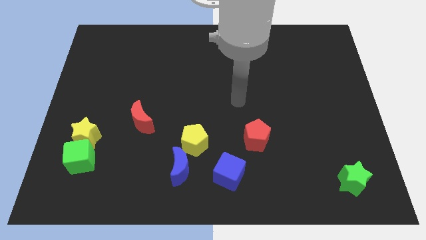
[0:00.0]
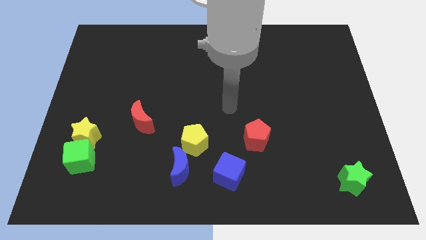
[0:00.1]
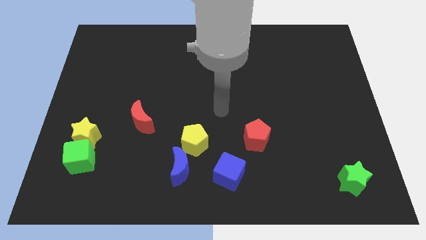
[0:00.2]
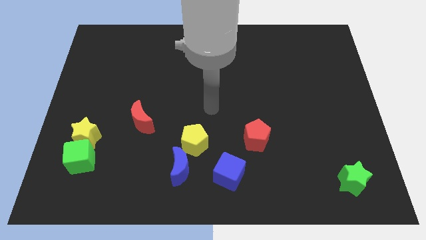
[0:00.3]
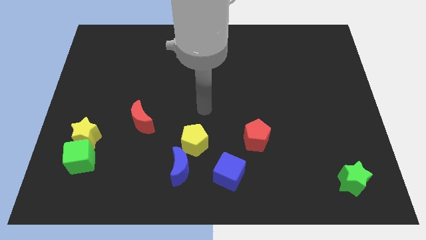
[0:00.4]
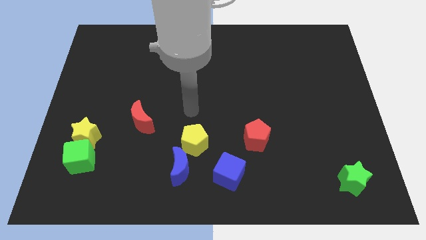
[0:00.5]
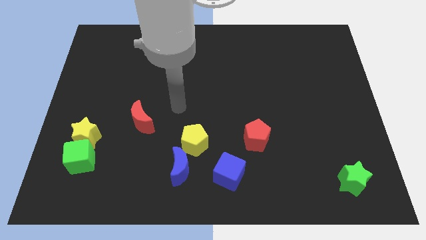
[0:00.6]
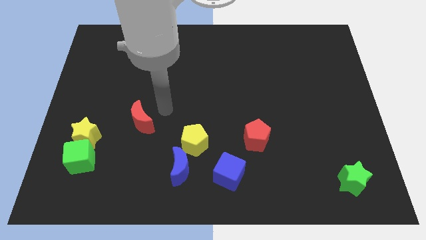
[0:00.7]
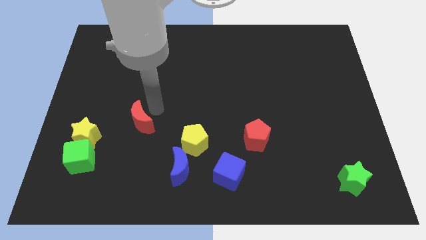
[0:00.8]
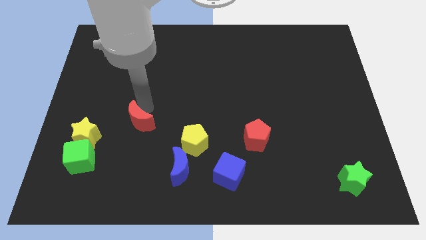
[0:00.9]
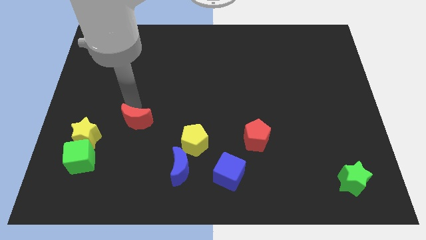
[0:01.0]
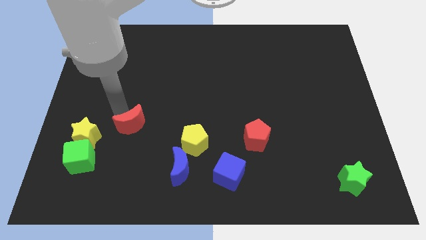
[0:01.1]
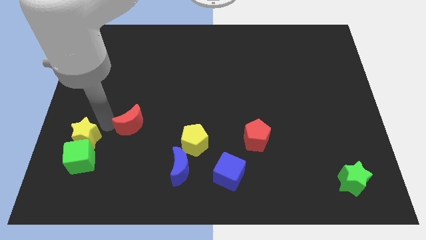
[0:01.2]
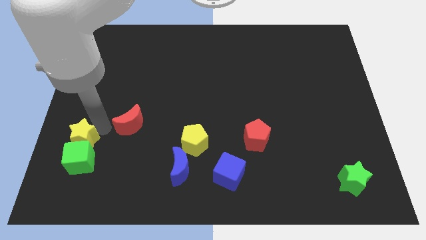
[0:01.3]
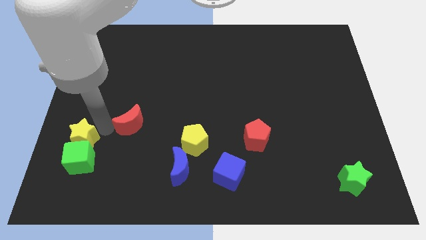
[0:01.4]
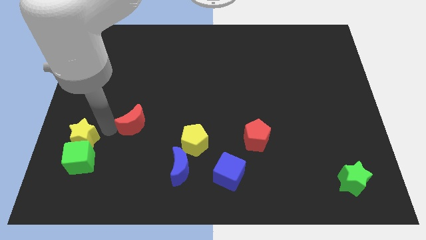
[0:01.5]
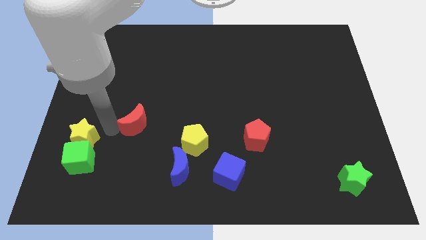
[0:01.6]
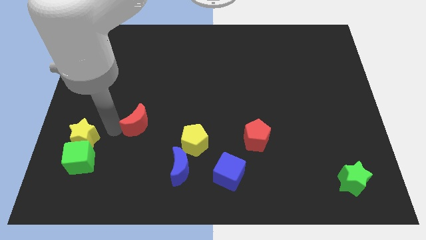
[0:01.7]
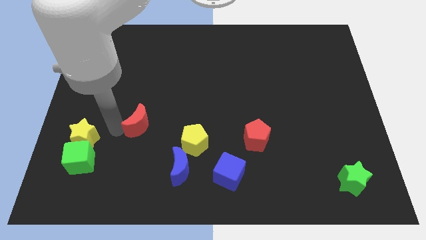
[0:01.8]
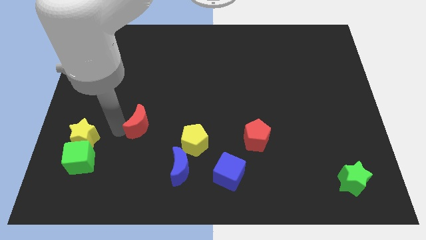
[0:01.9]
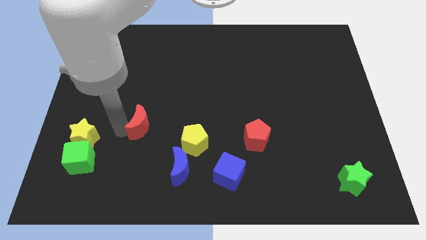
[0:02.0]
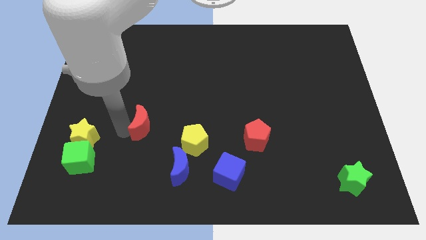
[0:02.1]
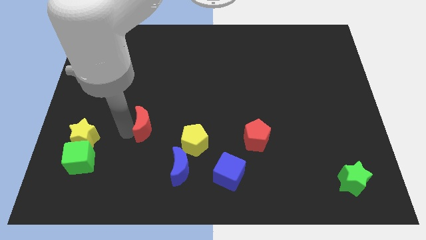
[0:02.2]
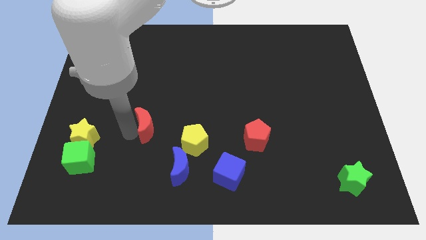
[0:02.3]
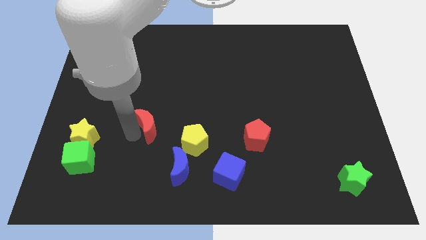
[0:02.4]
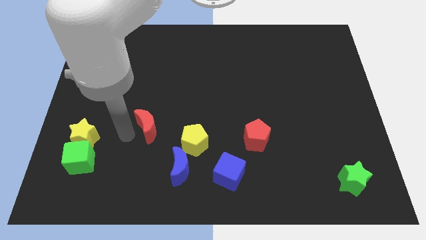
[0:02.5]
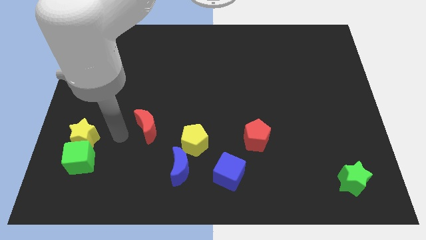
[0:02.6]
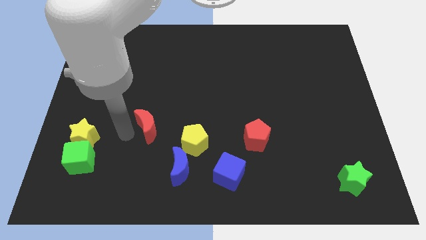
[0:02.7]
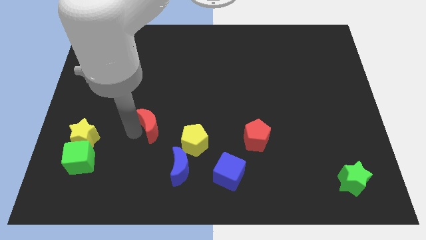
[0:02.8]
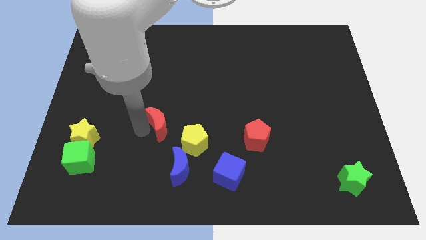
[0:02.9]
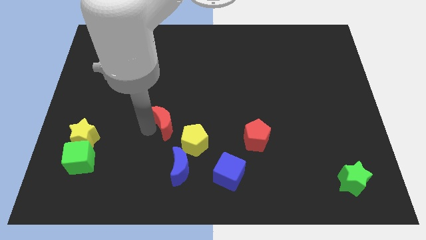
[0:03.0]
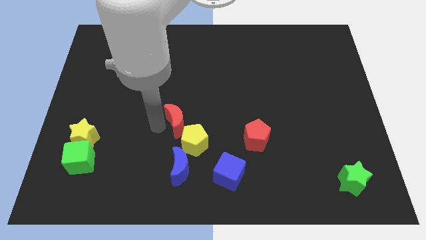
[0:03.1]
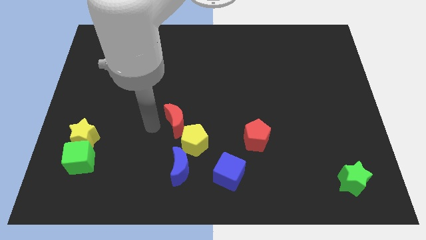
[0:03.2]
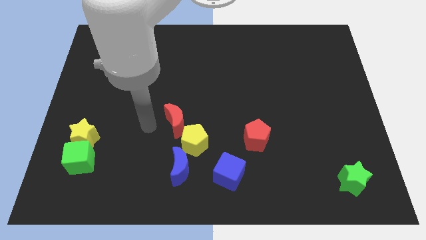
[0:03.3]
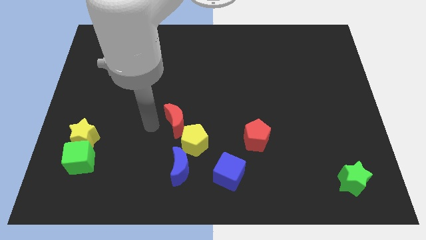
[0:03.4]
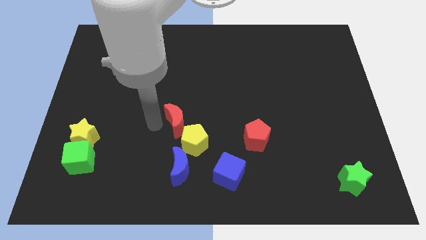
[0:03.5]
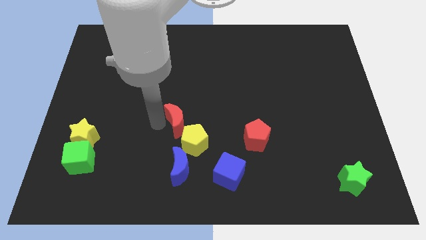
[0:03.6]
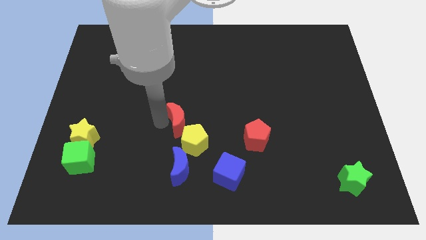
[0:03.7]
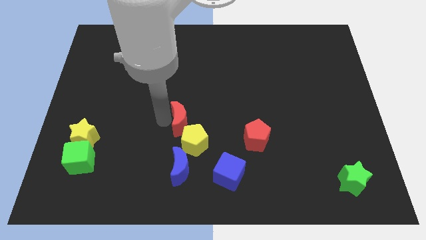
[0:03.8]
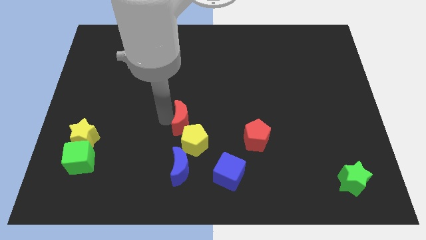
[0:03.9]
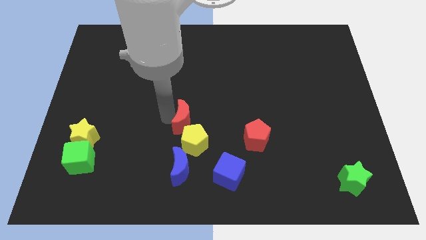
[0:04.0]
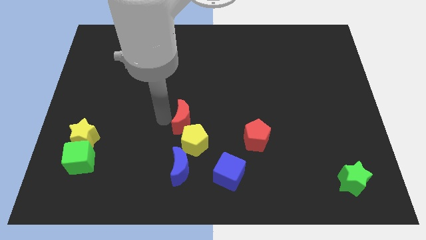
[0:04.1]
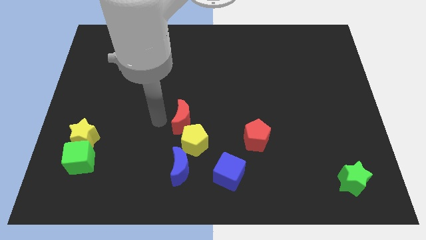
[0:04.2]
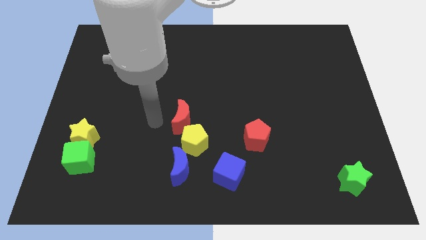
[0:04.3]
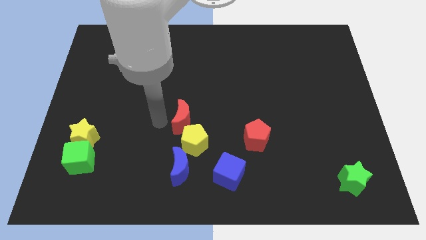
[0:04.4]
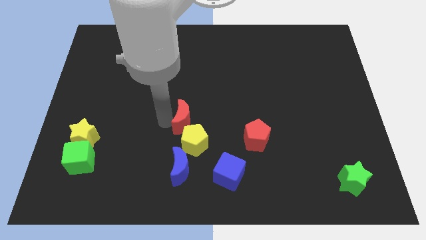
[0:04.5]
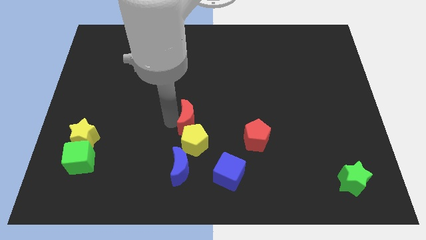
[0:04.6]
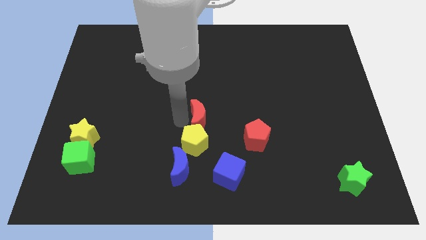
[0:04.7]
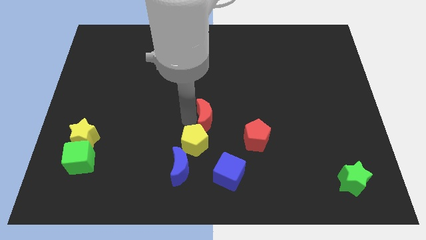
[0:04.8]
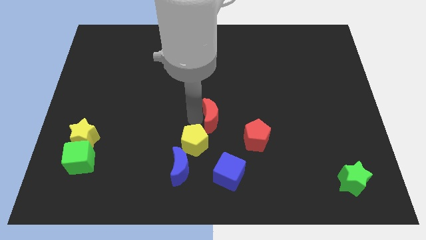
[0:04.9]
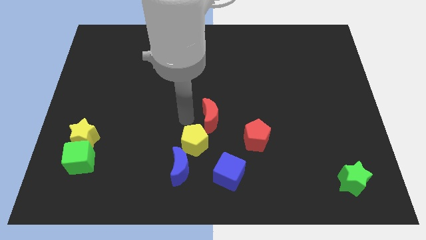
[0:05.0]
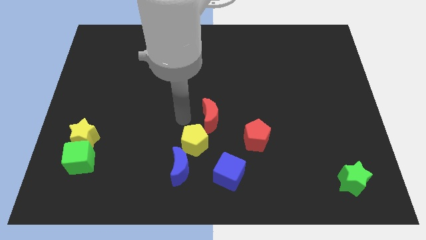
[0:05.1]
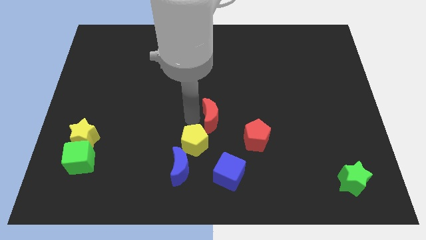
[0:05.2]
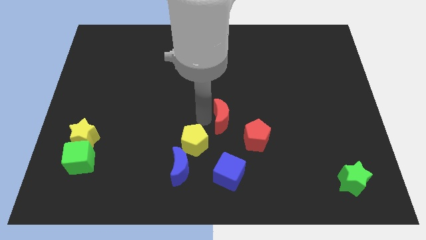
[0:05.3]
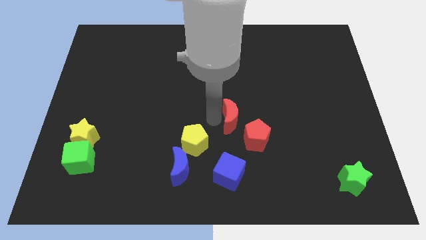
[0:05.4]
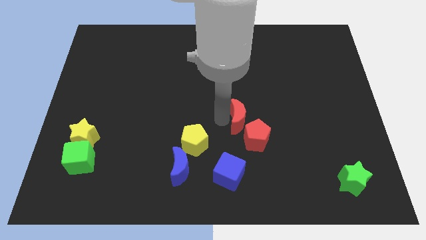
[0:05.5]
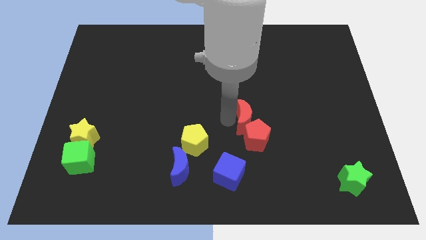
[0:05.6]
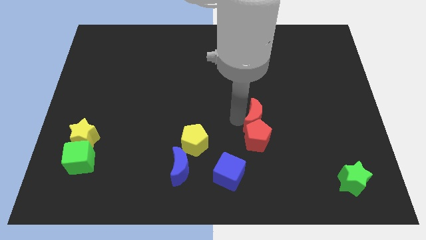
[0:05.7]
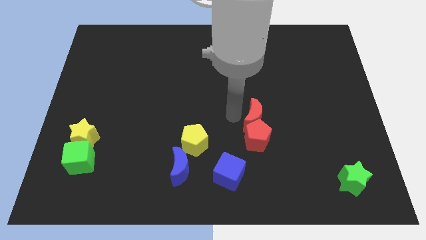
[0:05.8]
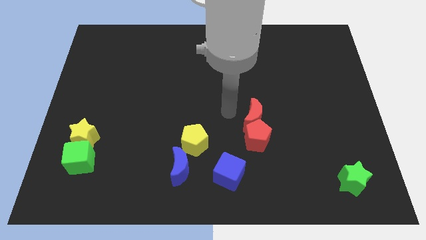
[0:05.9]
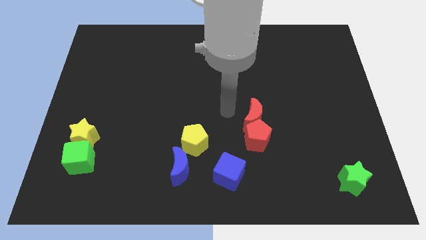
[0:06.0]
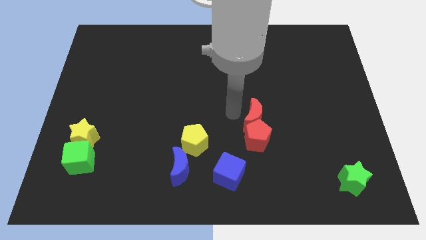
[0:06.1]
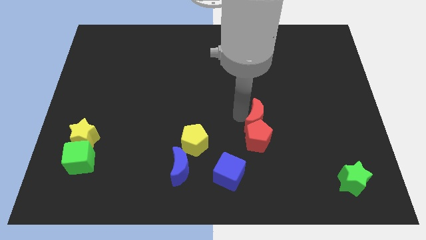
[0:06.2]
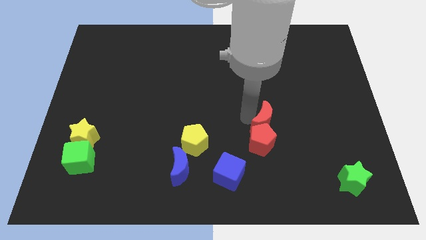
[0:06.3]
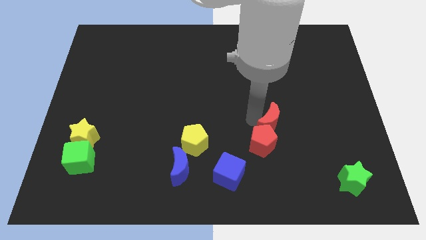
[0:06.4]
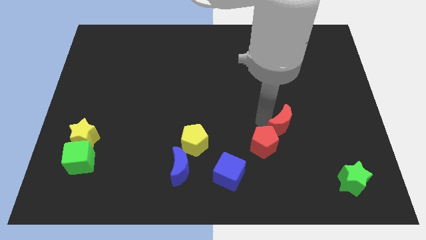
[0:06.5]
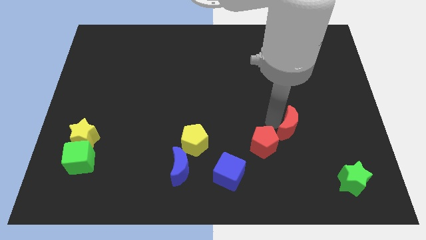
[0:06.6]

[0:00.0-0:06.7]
move the red moon to the right of the red pentagon
